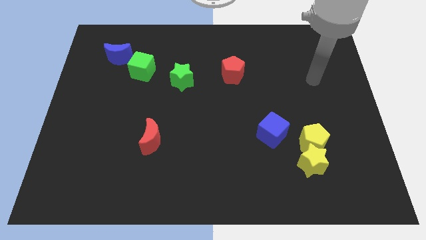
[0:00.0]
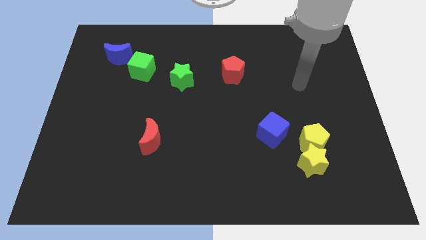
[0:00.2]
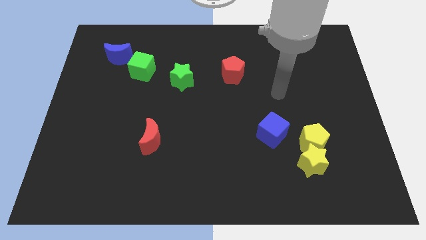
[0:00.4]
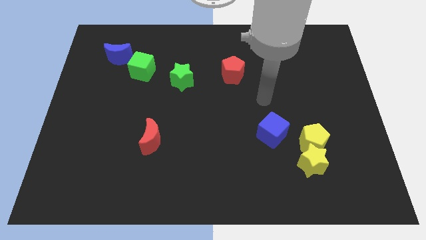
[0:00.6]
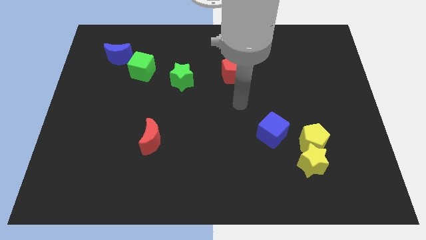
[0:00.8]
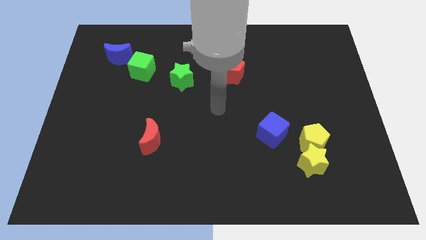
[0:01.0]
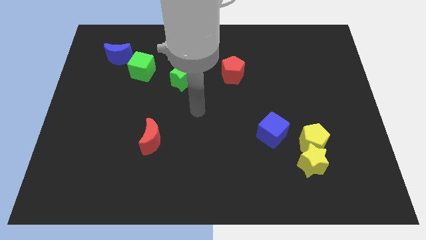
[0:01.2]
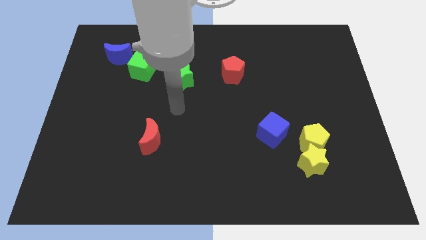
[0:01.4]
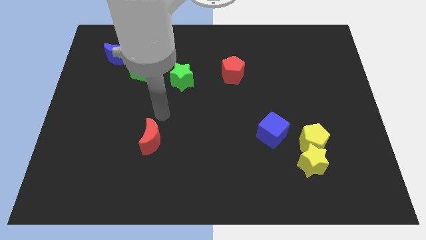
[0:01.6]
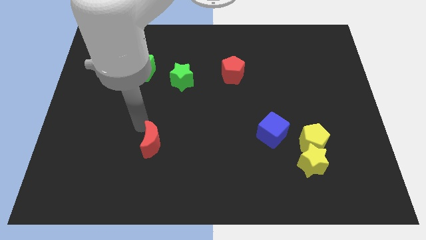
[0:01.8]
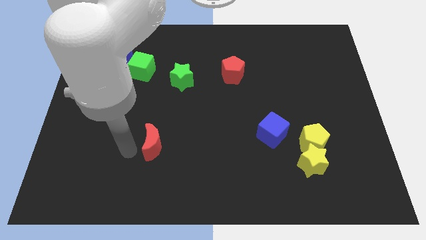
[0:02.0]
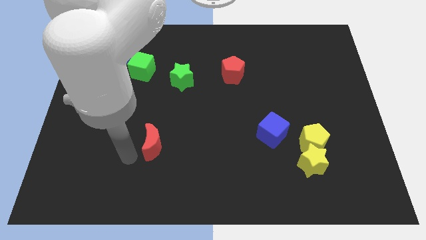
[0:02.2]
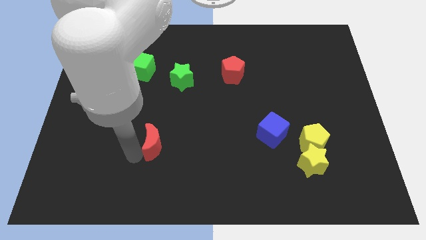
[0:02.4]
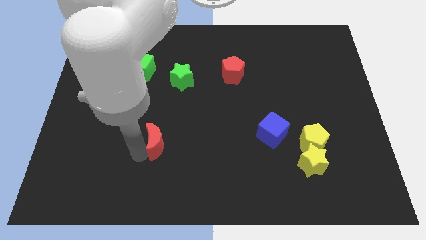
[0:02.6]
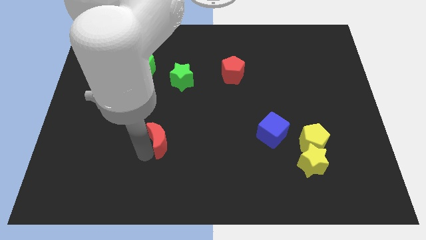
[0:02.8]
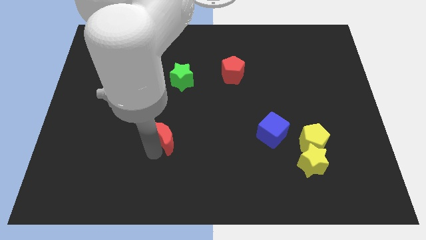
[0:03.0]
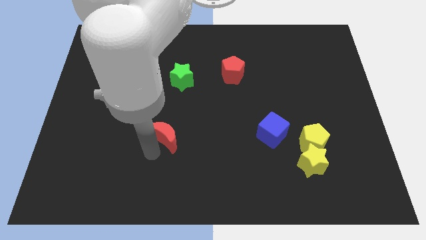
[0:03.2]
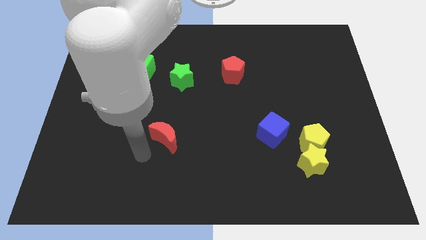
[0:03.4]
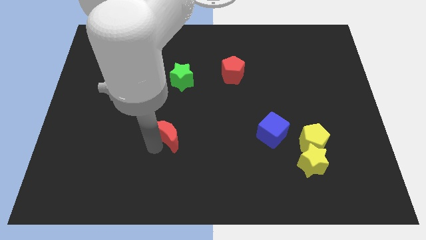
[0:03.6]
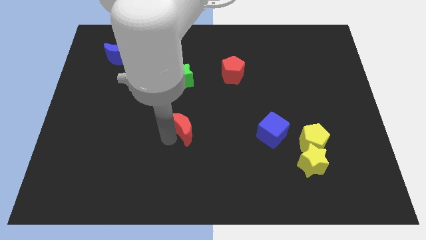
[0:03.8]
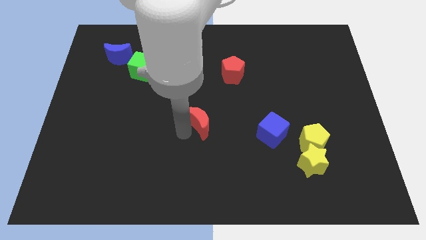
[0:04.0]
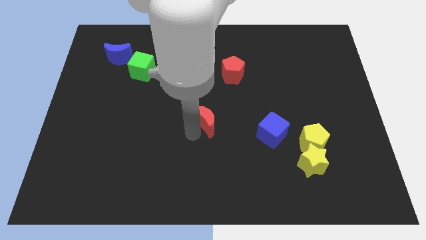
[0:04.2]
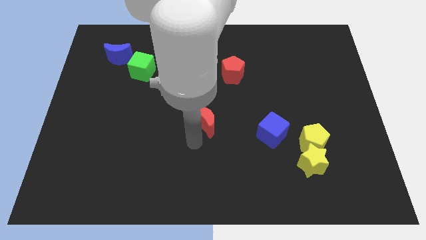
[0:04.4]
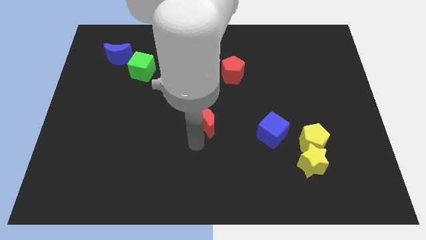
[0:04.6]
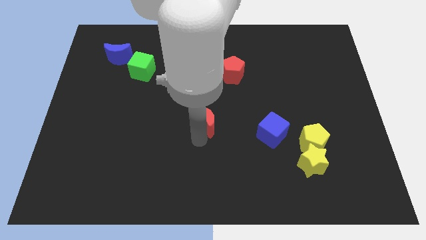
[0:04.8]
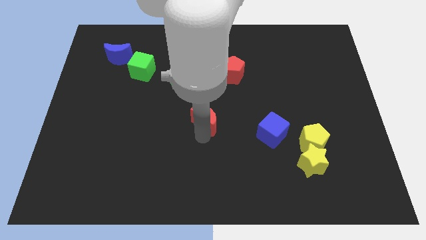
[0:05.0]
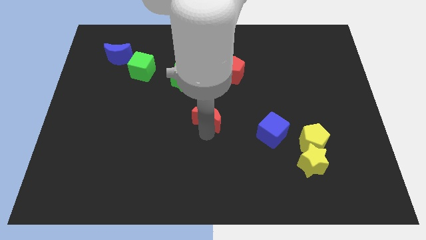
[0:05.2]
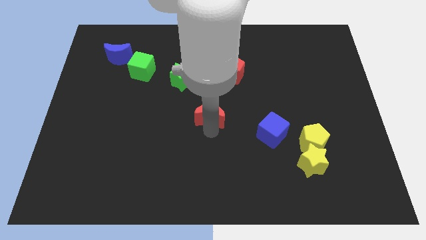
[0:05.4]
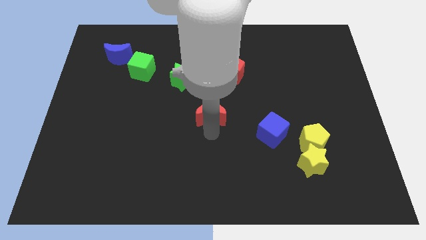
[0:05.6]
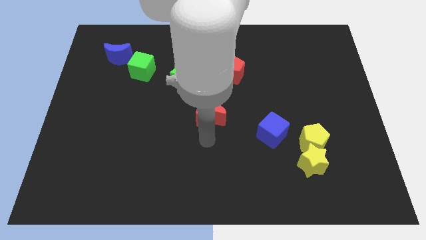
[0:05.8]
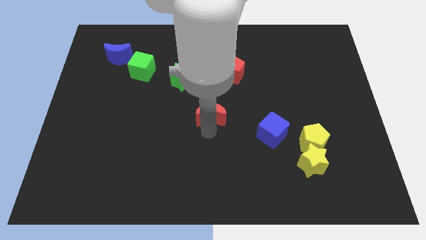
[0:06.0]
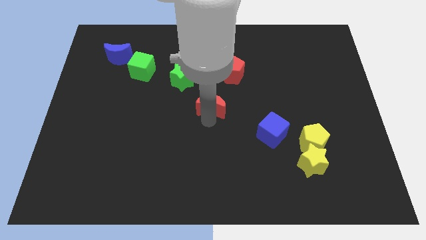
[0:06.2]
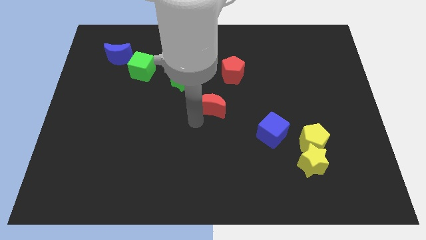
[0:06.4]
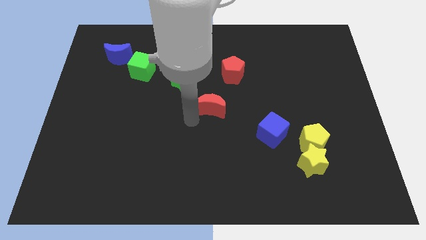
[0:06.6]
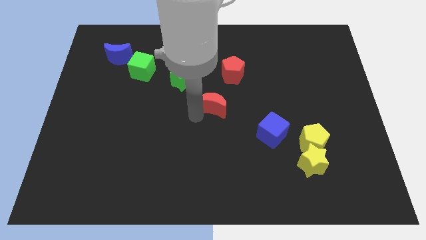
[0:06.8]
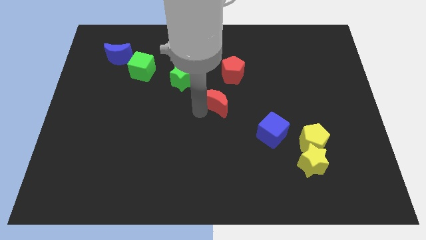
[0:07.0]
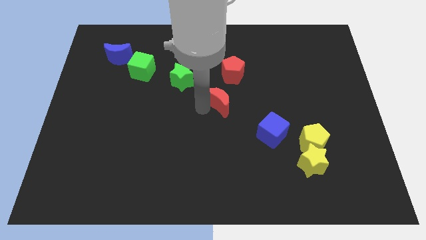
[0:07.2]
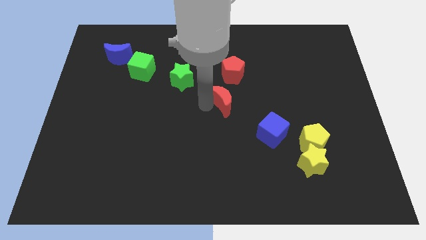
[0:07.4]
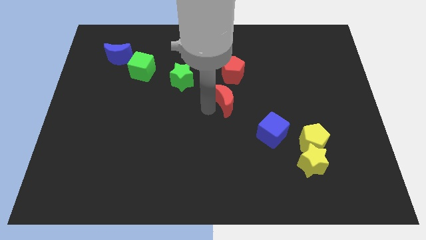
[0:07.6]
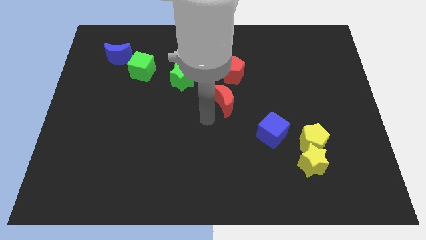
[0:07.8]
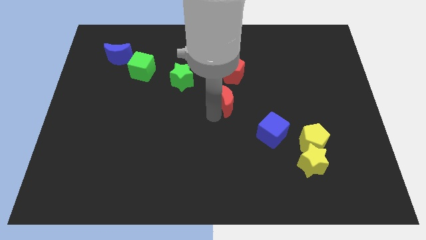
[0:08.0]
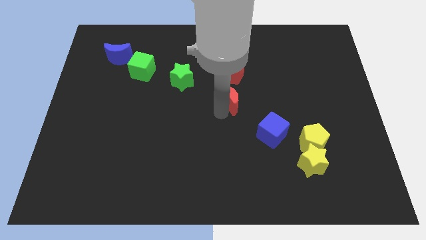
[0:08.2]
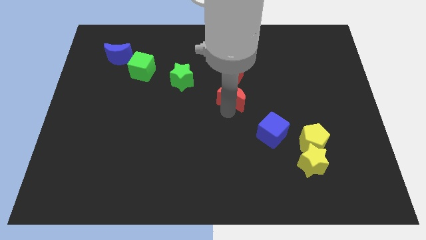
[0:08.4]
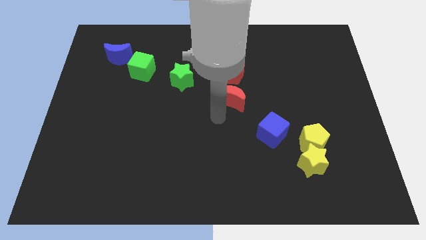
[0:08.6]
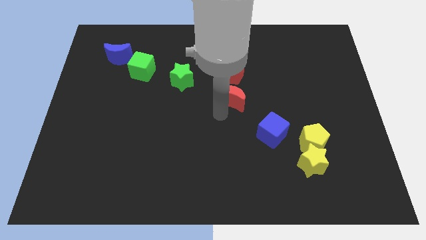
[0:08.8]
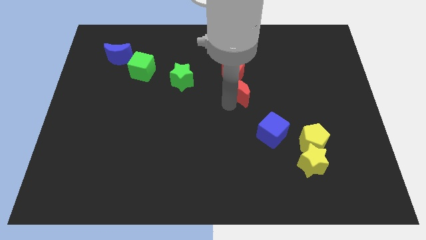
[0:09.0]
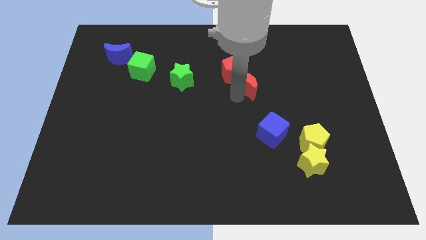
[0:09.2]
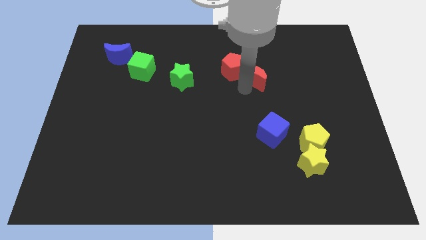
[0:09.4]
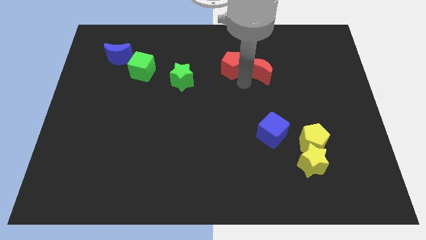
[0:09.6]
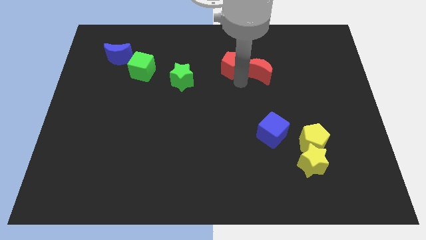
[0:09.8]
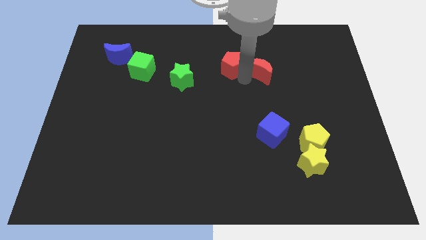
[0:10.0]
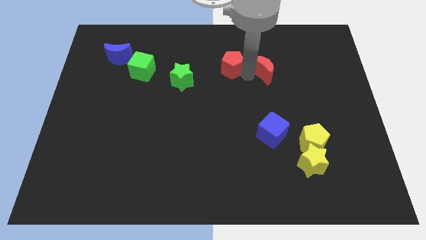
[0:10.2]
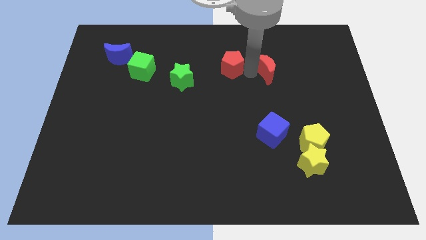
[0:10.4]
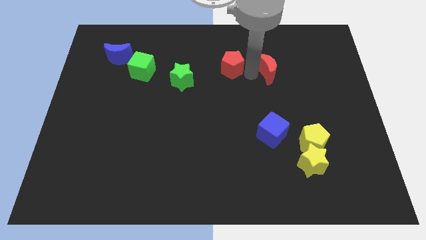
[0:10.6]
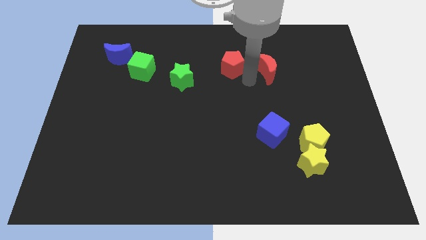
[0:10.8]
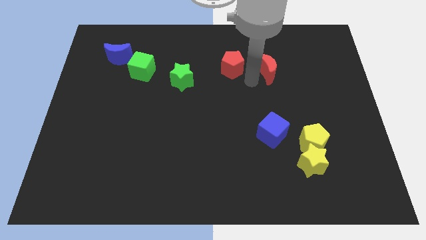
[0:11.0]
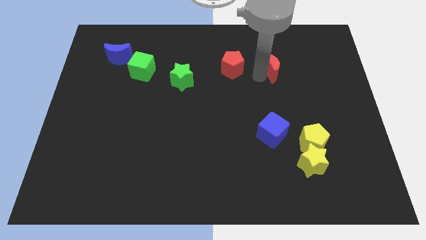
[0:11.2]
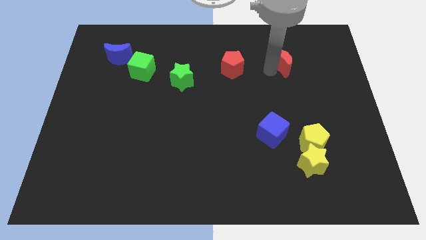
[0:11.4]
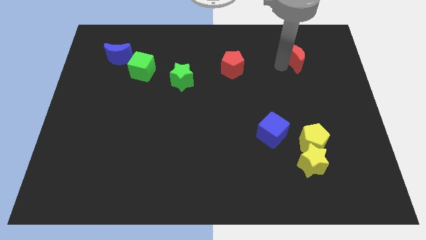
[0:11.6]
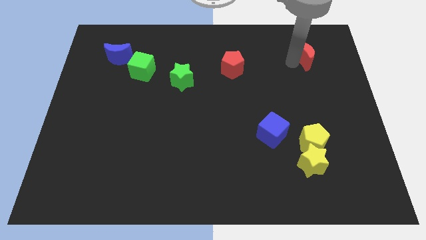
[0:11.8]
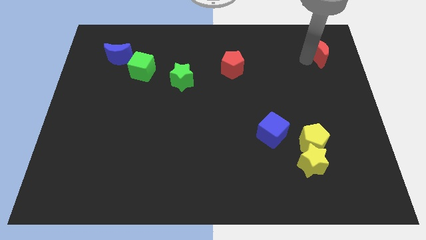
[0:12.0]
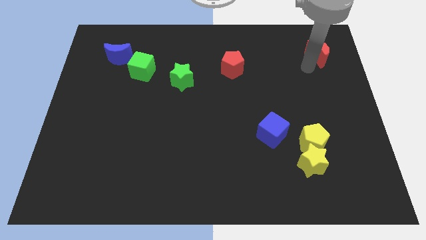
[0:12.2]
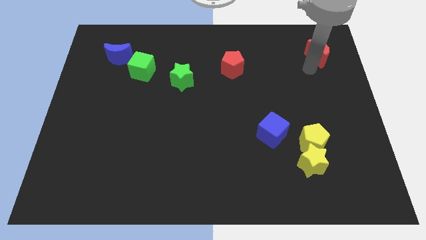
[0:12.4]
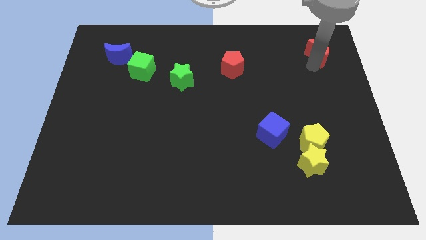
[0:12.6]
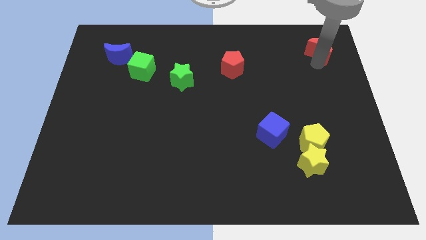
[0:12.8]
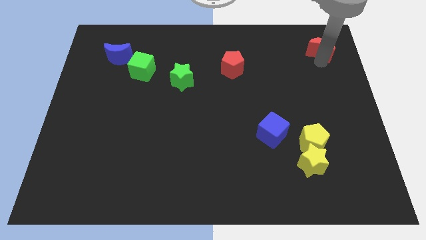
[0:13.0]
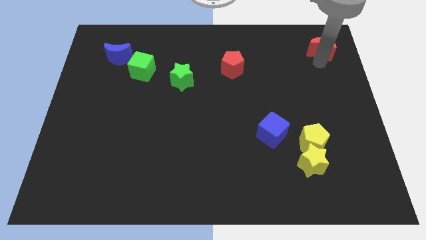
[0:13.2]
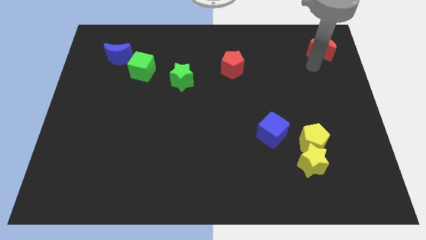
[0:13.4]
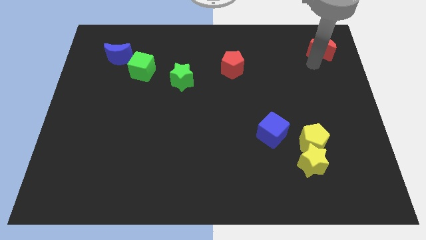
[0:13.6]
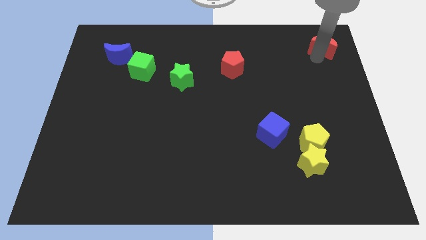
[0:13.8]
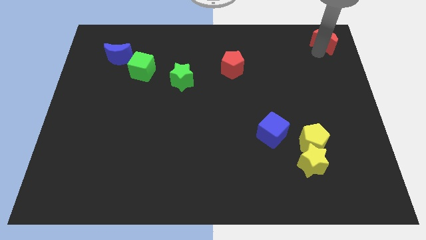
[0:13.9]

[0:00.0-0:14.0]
slide the red moon to the top right corner

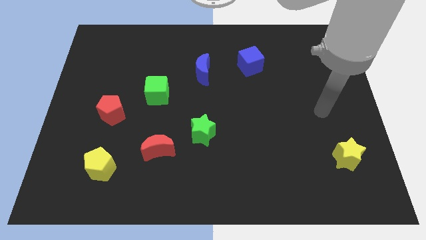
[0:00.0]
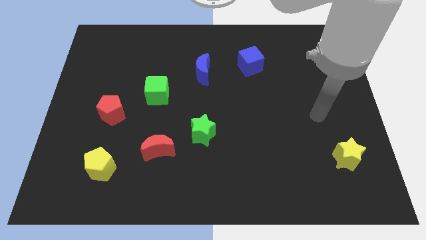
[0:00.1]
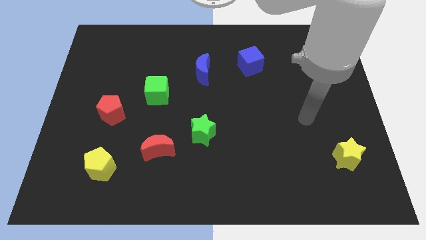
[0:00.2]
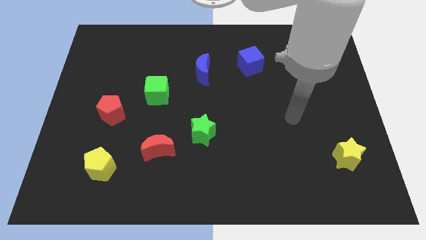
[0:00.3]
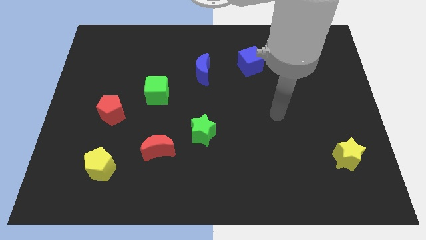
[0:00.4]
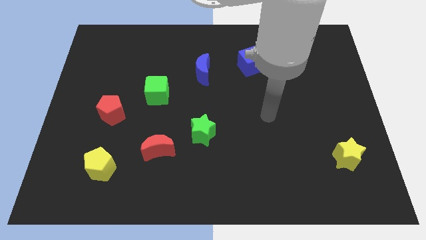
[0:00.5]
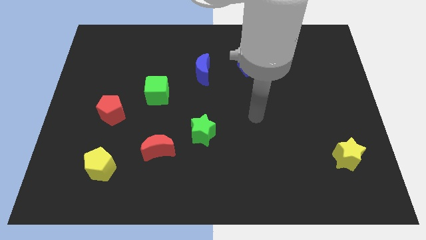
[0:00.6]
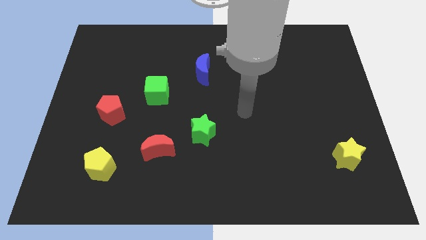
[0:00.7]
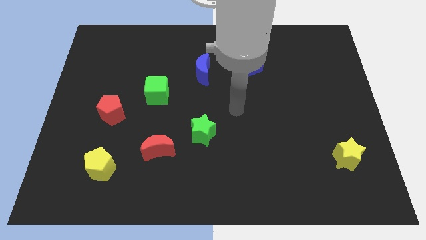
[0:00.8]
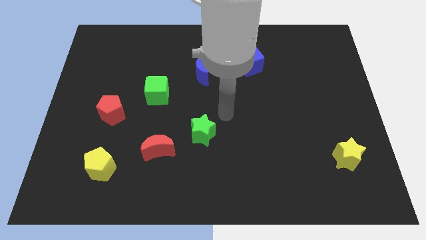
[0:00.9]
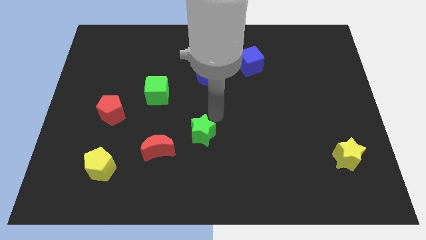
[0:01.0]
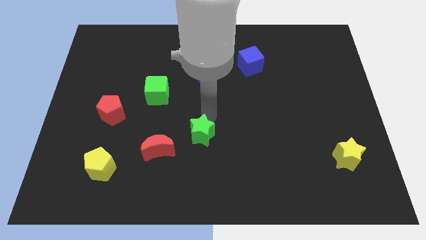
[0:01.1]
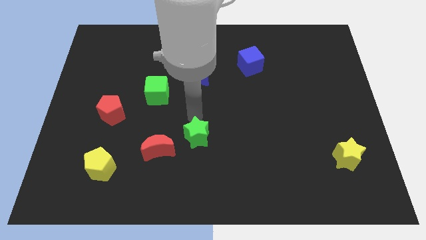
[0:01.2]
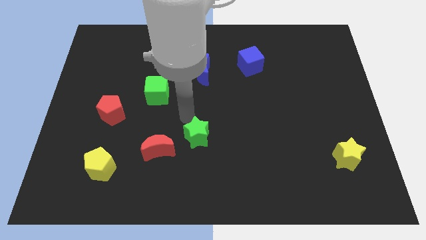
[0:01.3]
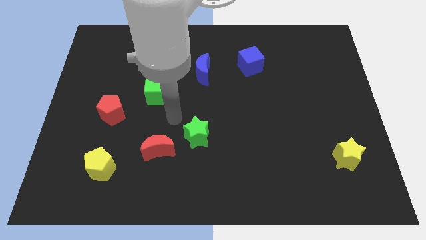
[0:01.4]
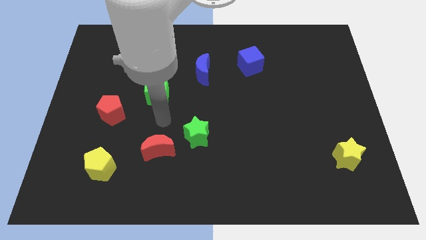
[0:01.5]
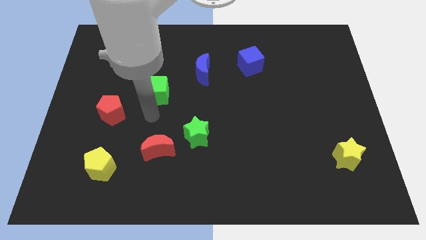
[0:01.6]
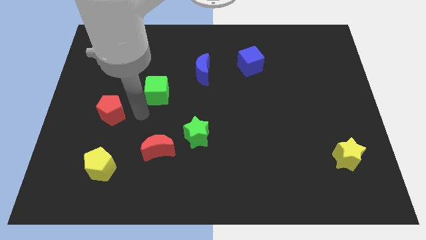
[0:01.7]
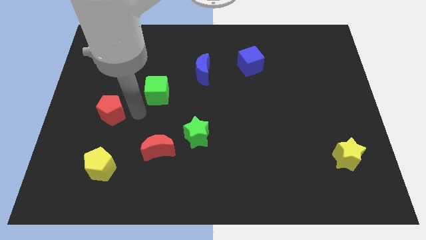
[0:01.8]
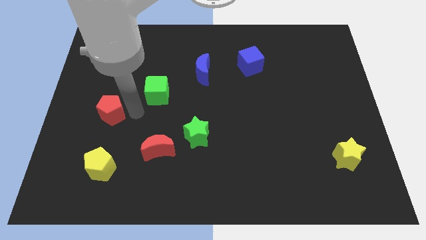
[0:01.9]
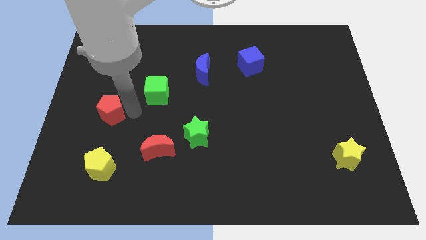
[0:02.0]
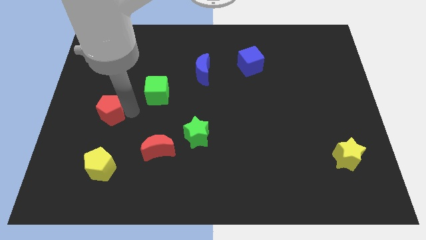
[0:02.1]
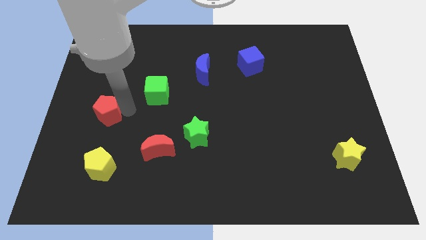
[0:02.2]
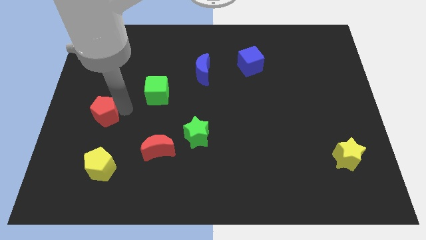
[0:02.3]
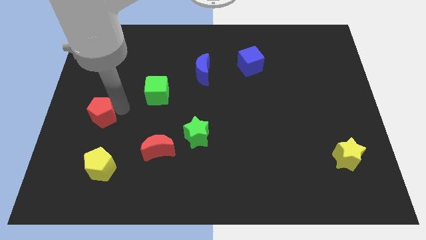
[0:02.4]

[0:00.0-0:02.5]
slide the red pentagon to the center left
